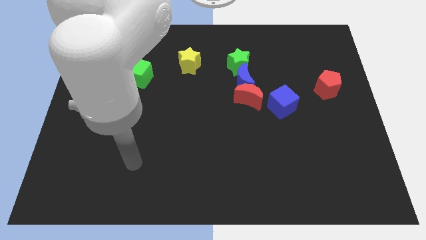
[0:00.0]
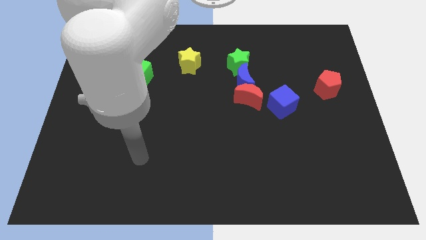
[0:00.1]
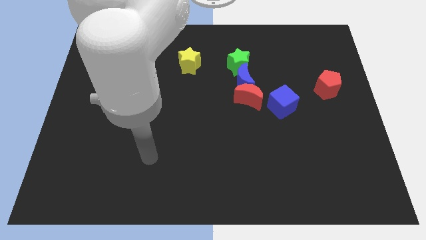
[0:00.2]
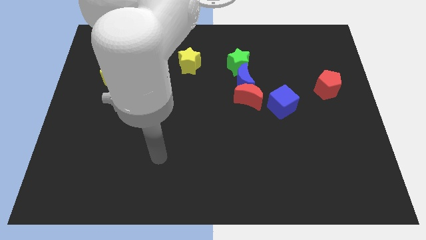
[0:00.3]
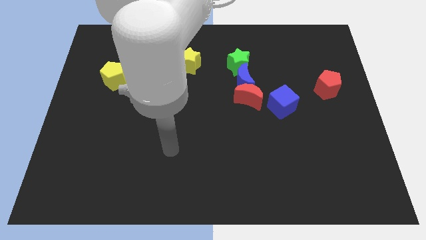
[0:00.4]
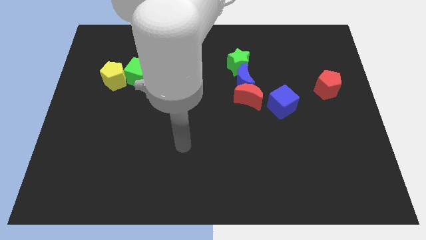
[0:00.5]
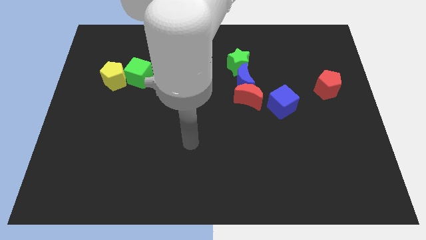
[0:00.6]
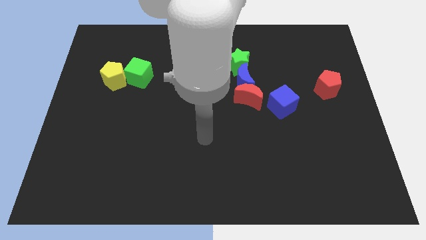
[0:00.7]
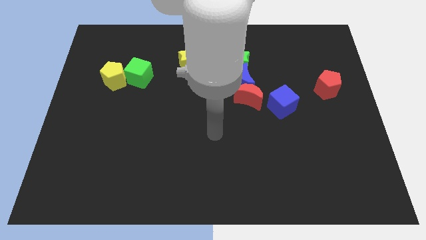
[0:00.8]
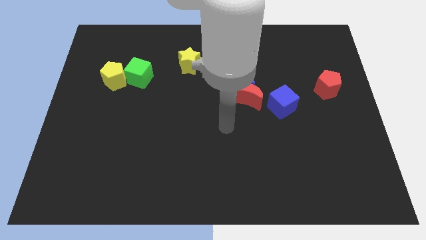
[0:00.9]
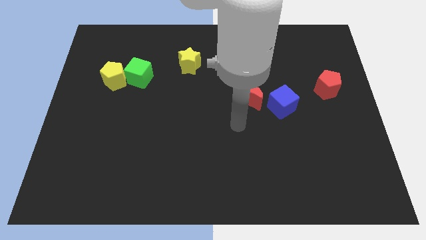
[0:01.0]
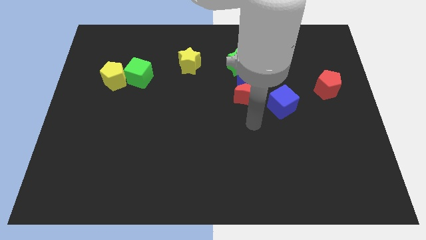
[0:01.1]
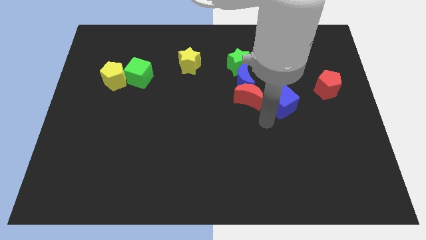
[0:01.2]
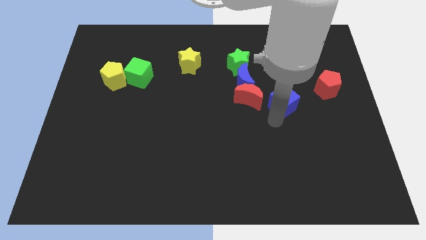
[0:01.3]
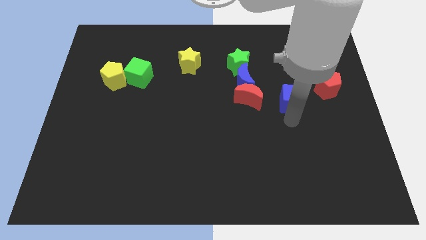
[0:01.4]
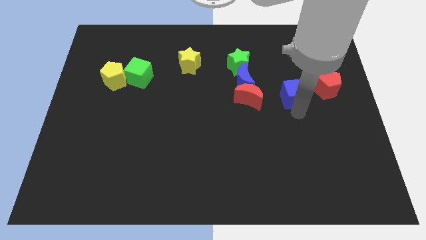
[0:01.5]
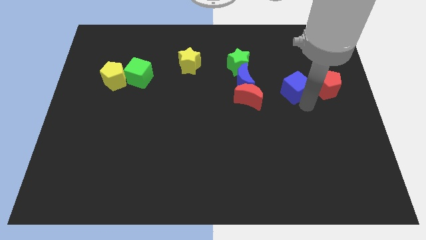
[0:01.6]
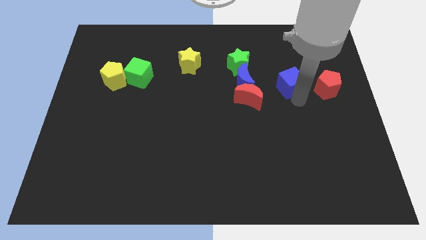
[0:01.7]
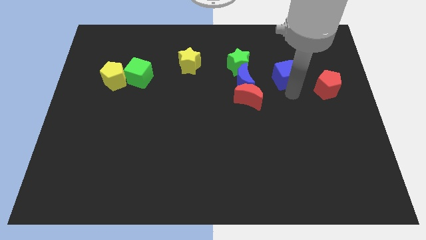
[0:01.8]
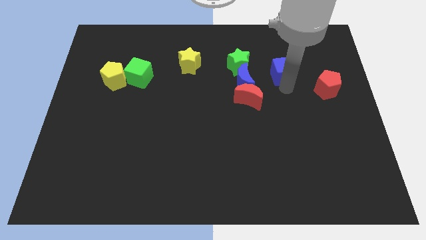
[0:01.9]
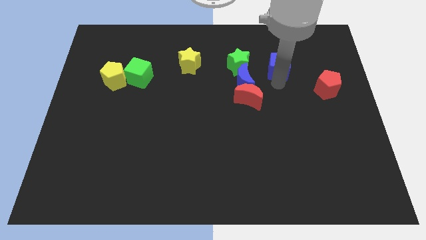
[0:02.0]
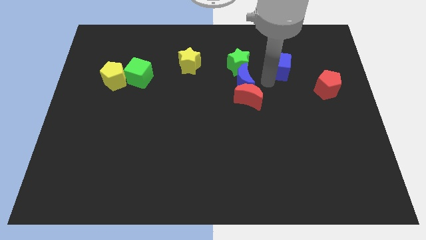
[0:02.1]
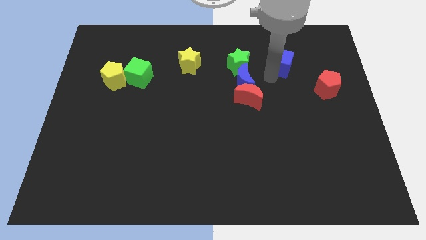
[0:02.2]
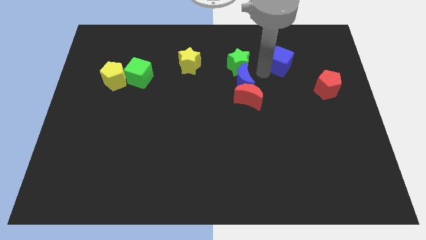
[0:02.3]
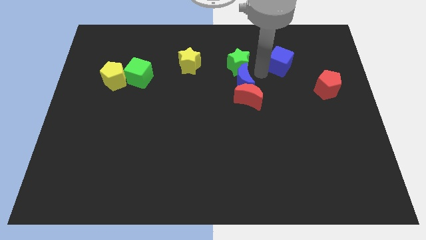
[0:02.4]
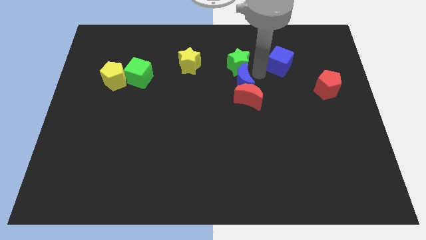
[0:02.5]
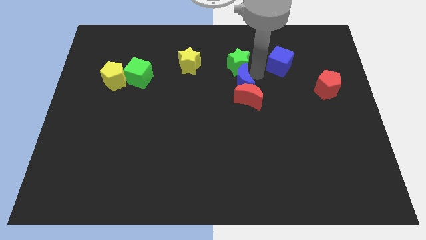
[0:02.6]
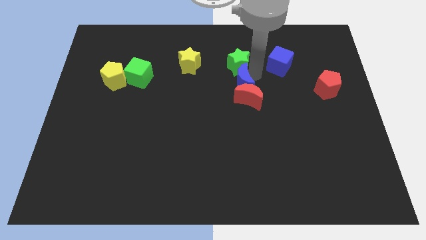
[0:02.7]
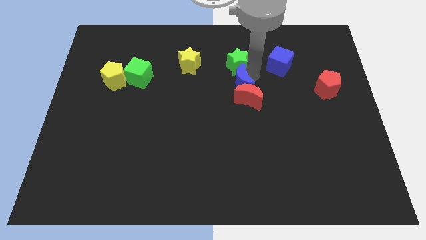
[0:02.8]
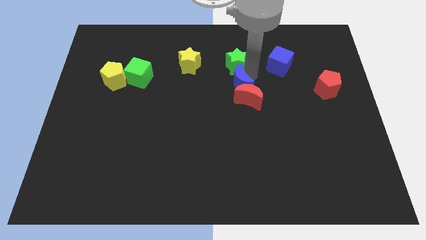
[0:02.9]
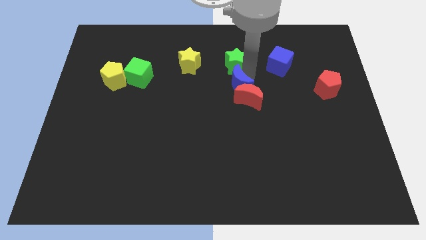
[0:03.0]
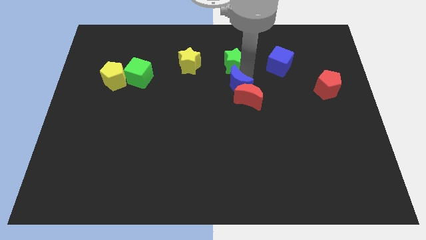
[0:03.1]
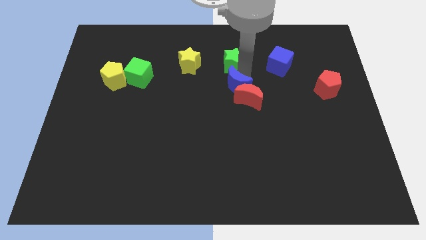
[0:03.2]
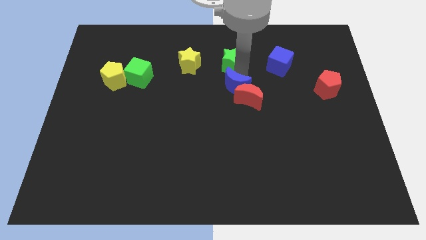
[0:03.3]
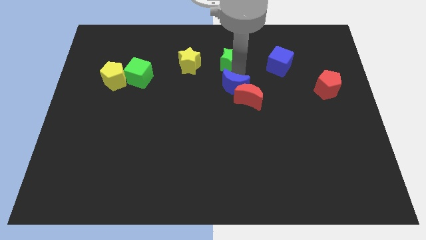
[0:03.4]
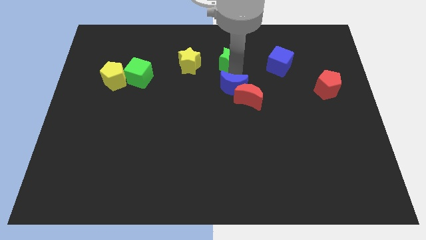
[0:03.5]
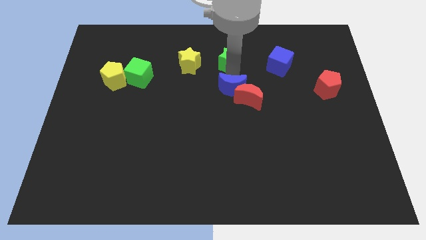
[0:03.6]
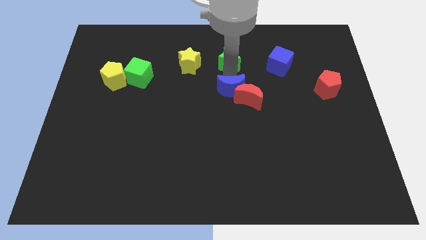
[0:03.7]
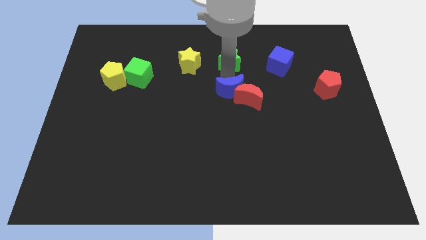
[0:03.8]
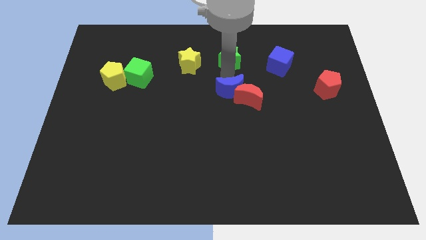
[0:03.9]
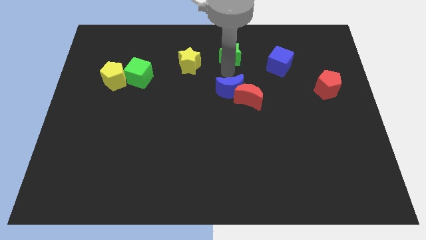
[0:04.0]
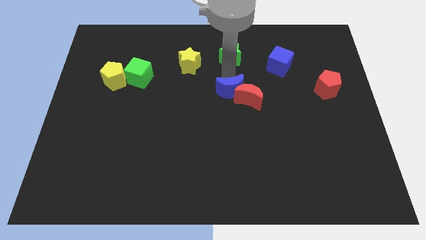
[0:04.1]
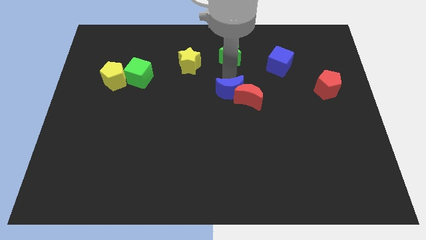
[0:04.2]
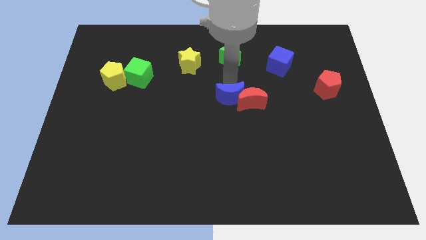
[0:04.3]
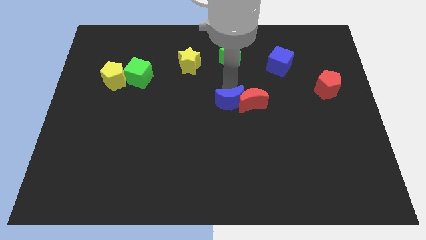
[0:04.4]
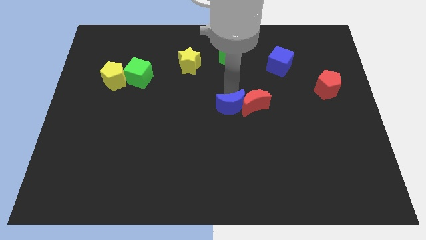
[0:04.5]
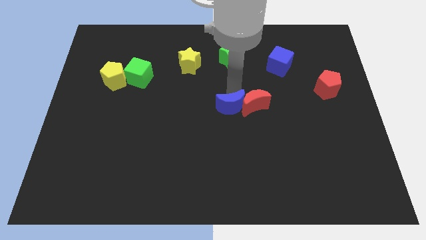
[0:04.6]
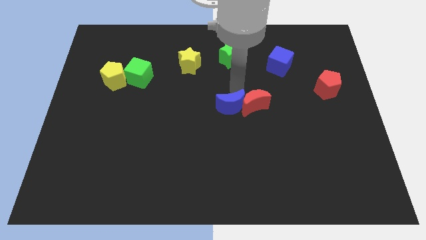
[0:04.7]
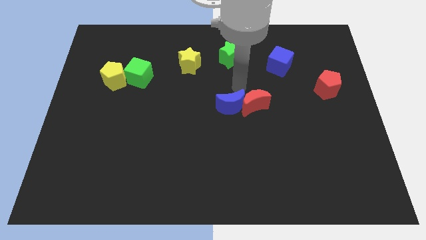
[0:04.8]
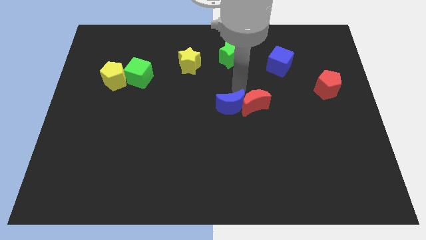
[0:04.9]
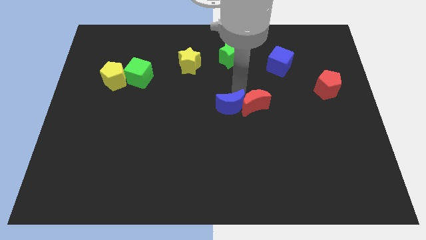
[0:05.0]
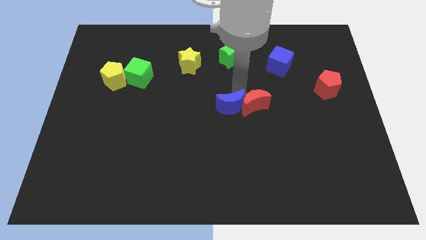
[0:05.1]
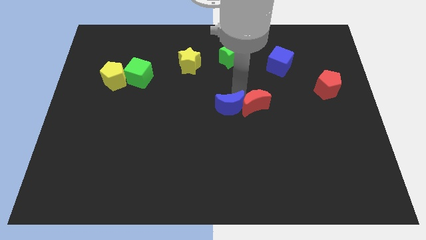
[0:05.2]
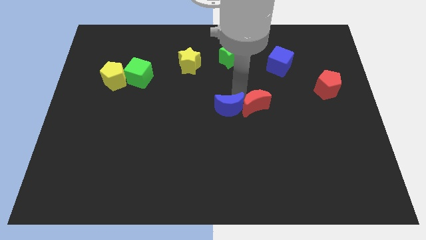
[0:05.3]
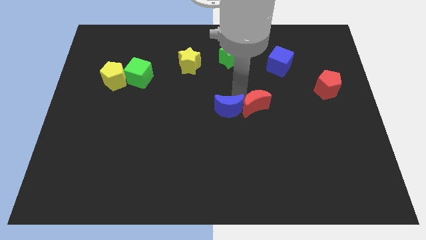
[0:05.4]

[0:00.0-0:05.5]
separate the blue moon from the red moon and green star

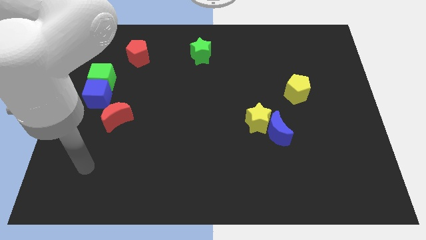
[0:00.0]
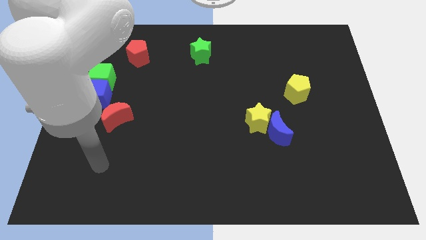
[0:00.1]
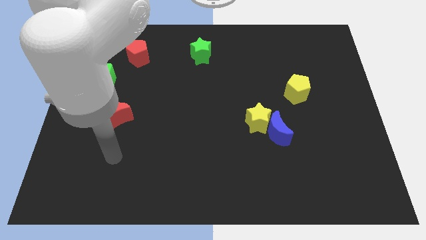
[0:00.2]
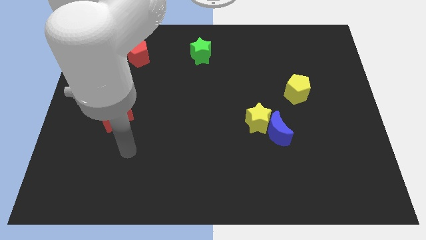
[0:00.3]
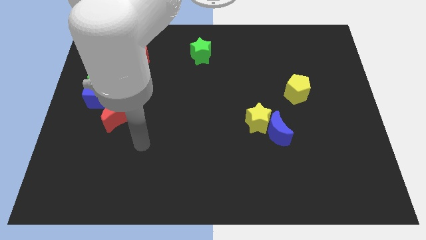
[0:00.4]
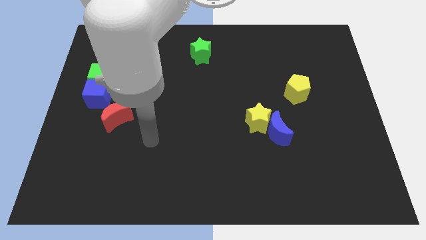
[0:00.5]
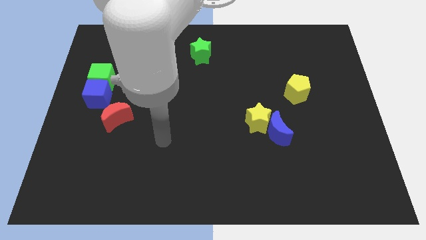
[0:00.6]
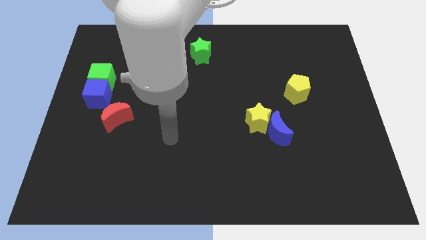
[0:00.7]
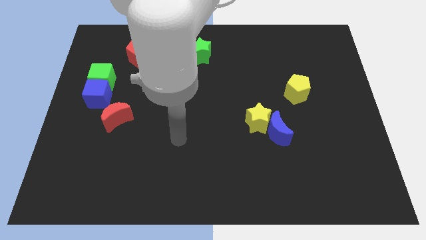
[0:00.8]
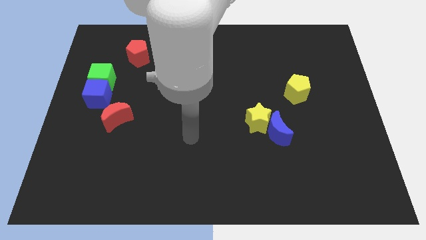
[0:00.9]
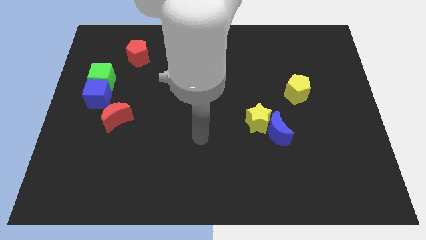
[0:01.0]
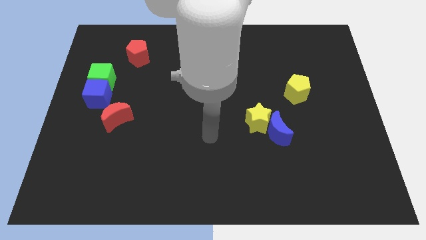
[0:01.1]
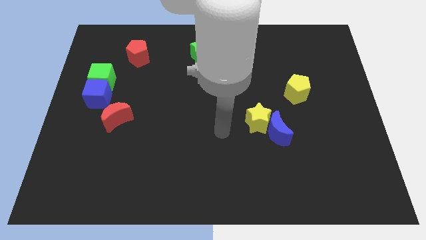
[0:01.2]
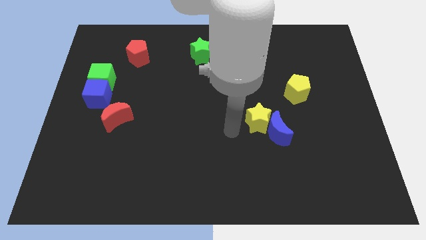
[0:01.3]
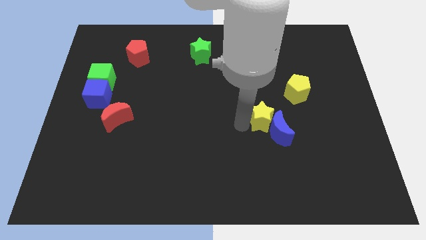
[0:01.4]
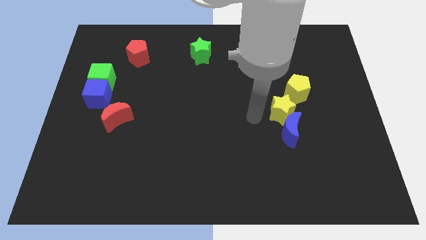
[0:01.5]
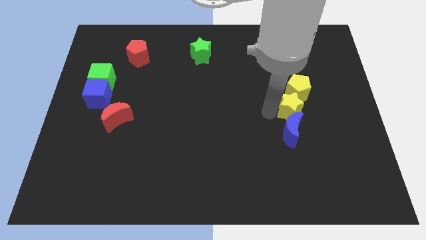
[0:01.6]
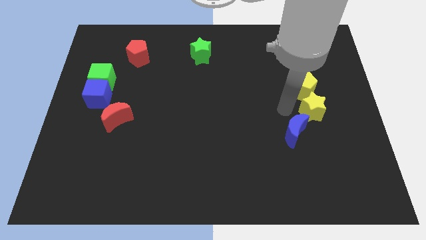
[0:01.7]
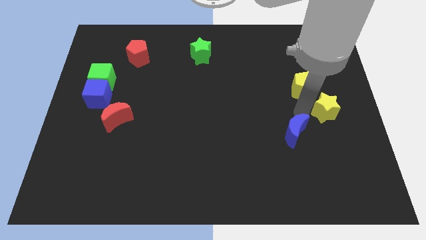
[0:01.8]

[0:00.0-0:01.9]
pull the blue moon apart from the yellow star

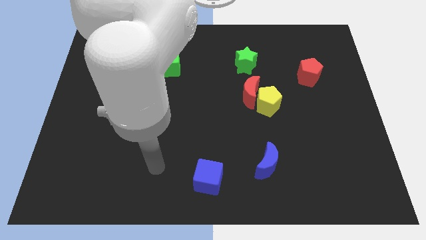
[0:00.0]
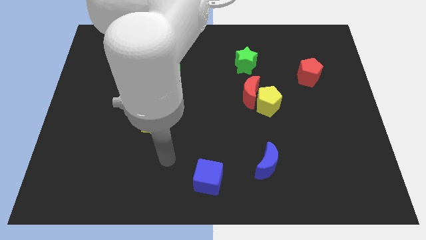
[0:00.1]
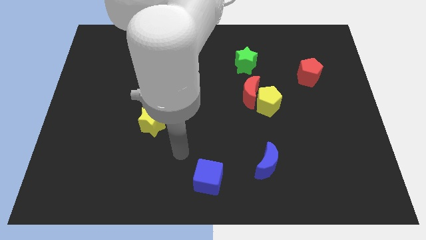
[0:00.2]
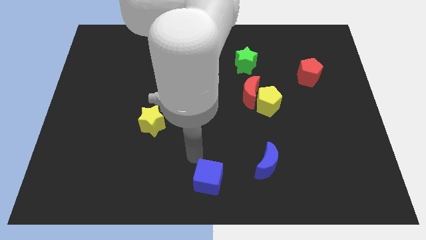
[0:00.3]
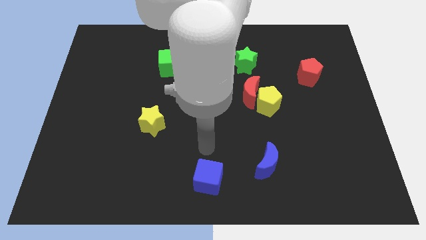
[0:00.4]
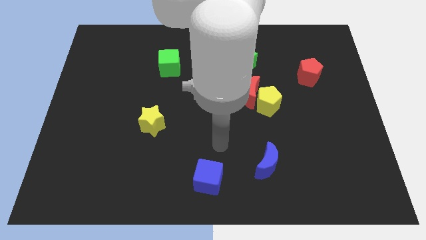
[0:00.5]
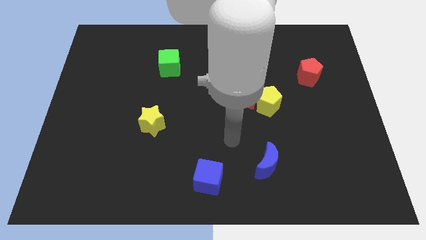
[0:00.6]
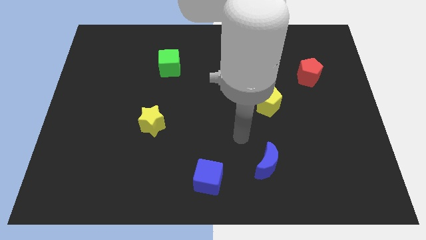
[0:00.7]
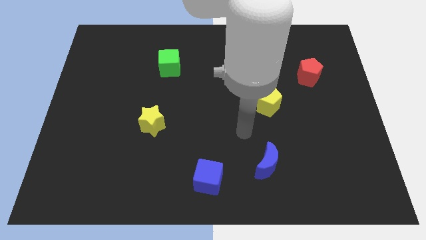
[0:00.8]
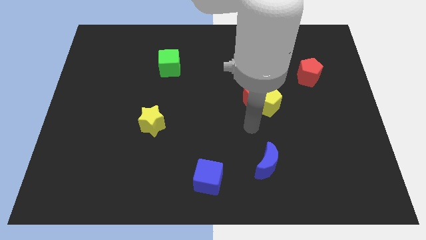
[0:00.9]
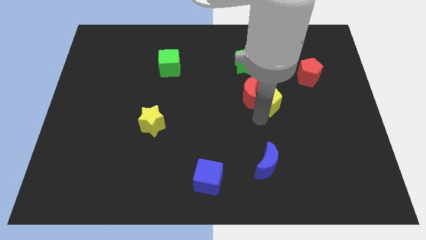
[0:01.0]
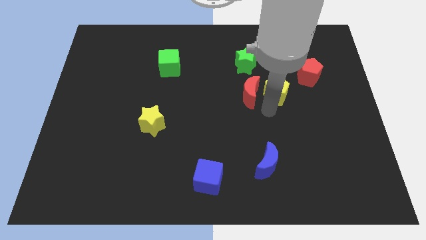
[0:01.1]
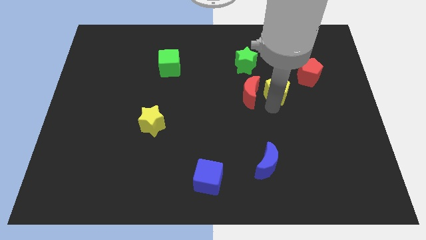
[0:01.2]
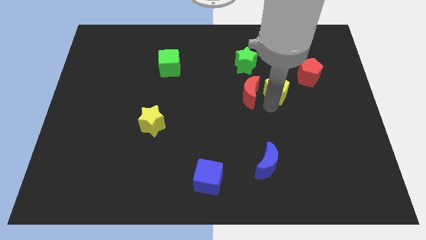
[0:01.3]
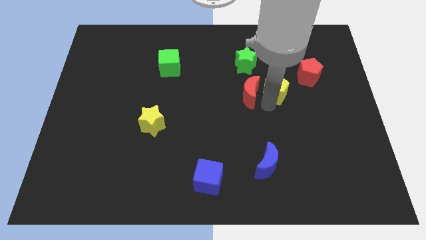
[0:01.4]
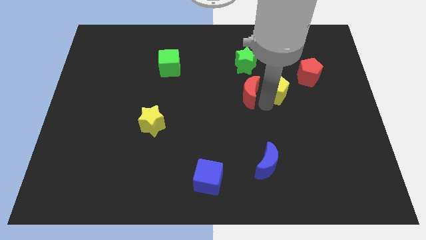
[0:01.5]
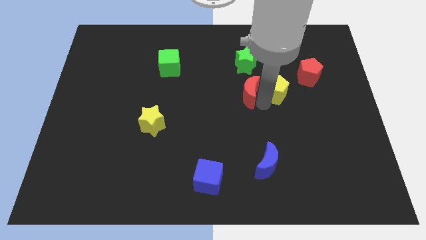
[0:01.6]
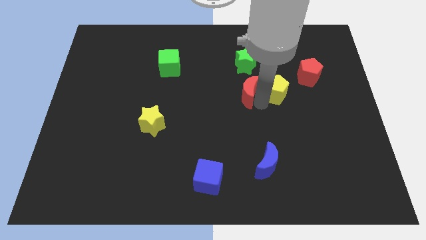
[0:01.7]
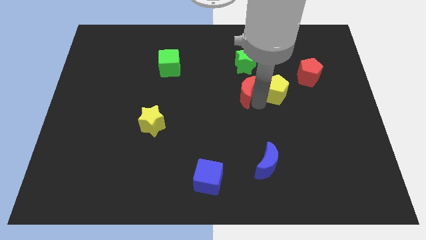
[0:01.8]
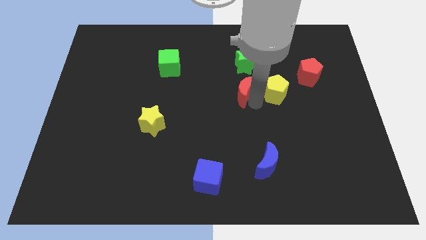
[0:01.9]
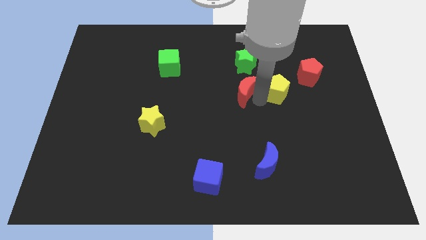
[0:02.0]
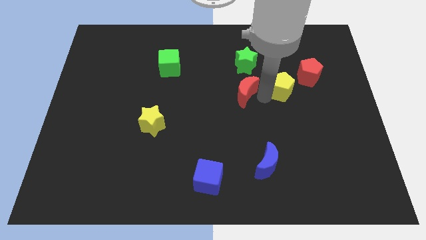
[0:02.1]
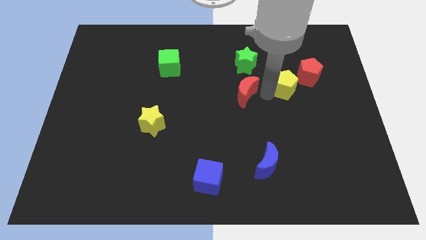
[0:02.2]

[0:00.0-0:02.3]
separate the red moon from the yellow pentagon
